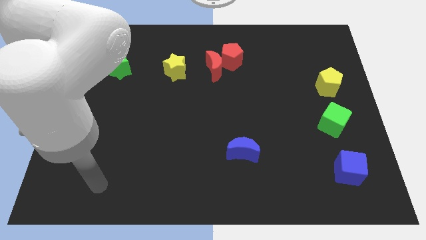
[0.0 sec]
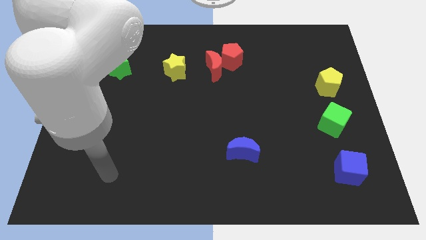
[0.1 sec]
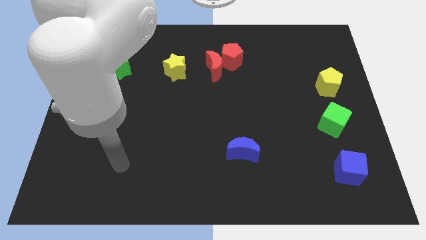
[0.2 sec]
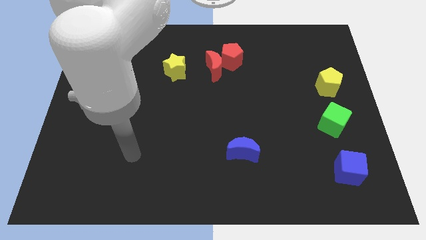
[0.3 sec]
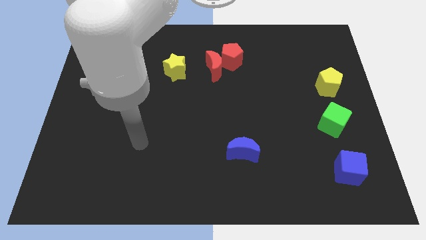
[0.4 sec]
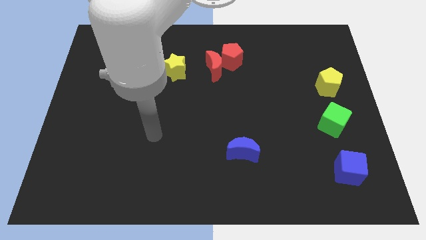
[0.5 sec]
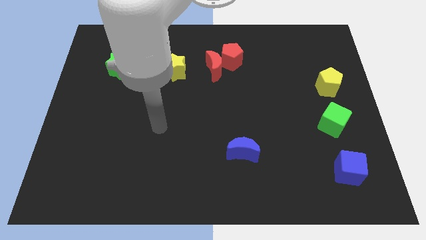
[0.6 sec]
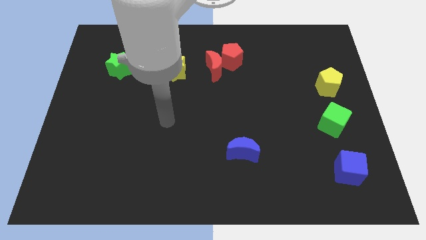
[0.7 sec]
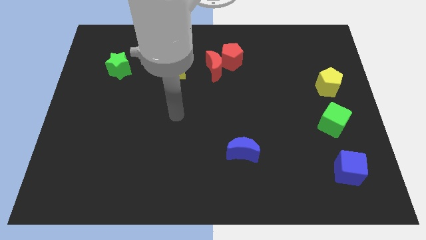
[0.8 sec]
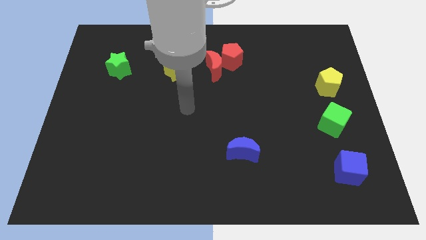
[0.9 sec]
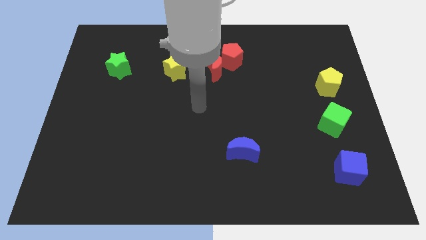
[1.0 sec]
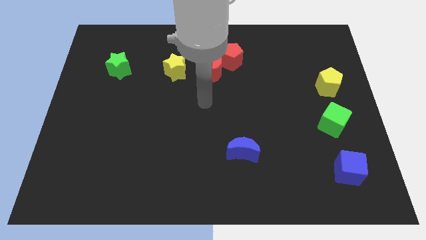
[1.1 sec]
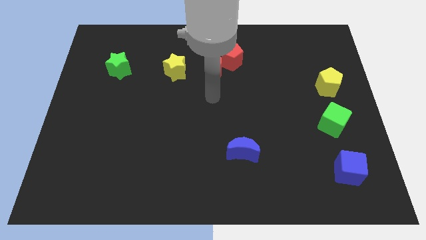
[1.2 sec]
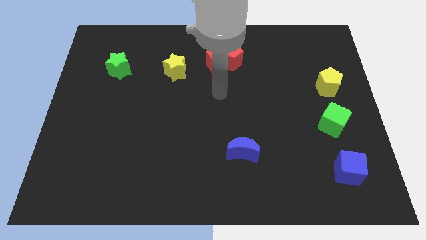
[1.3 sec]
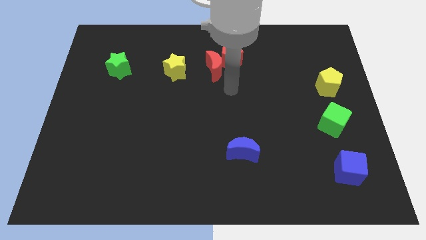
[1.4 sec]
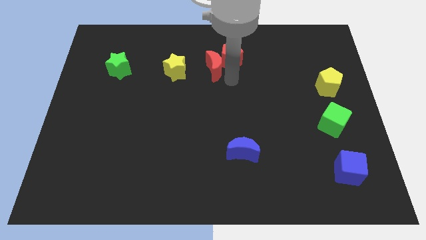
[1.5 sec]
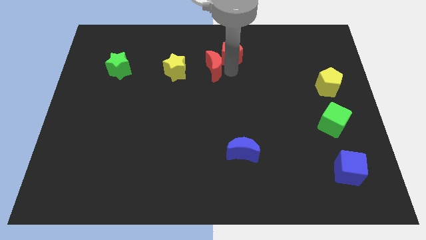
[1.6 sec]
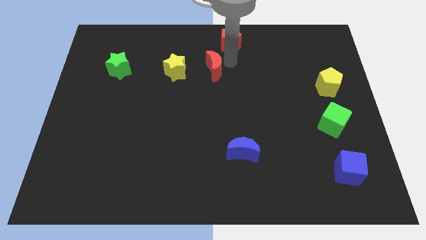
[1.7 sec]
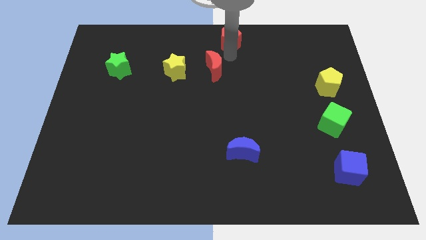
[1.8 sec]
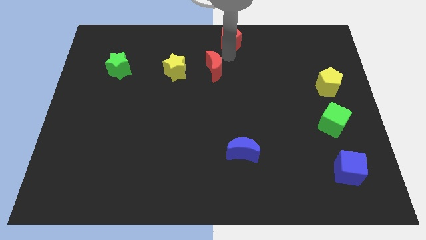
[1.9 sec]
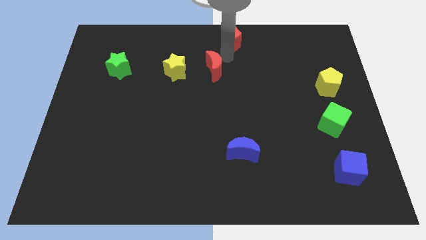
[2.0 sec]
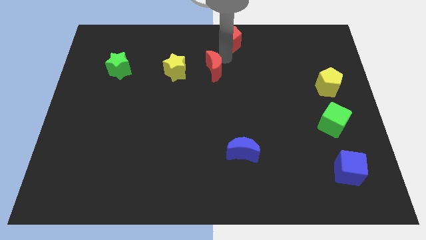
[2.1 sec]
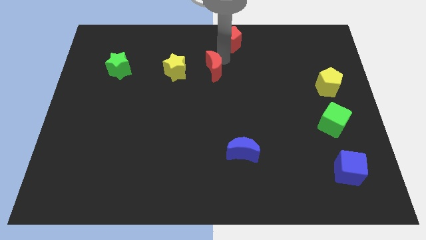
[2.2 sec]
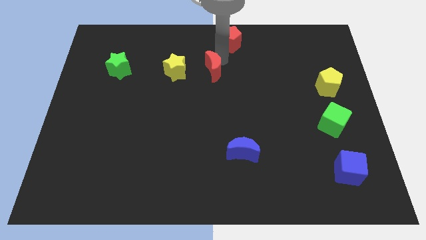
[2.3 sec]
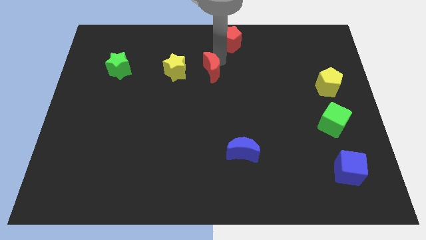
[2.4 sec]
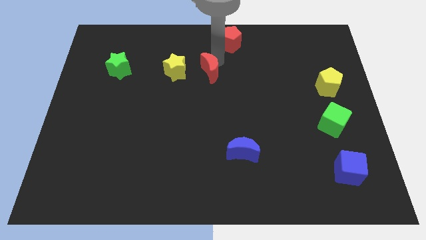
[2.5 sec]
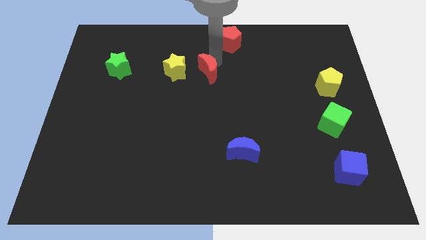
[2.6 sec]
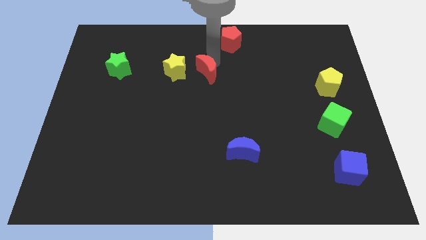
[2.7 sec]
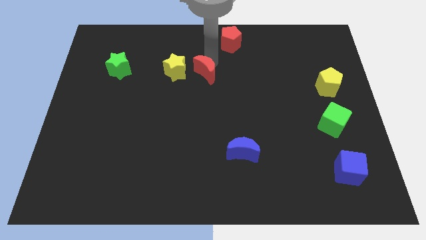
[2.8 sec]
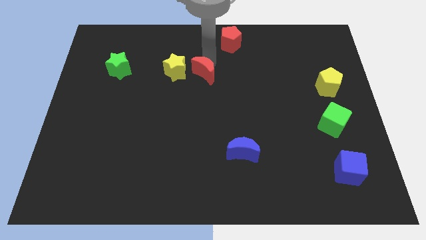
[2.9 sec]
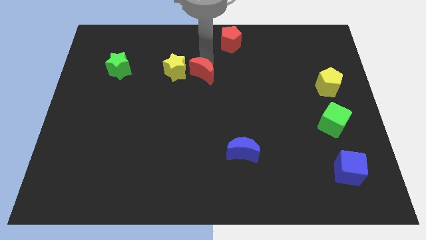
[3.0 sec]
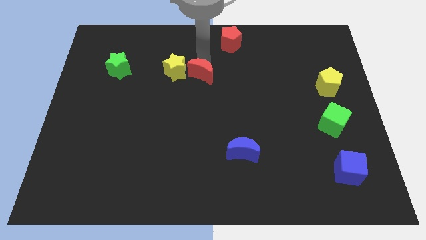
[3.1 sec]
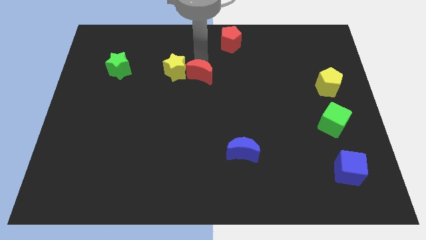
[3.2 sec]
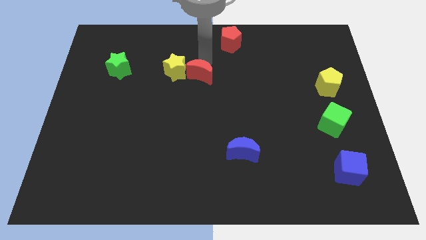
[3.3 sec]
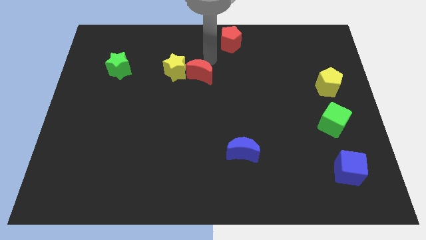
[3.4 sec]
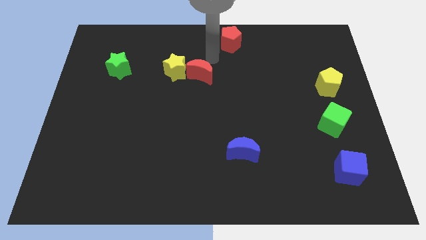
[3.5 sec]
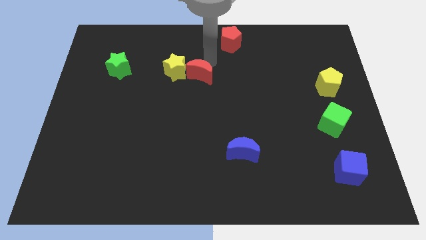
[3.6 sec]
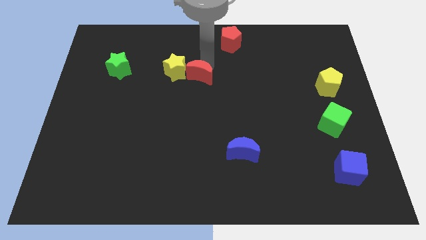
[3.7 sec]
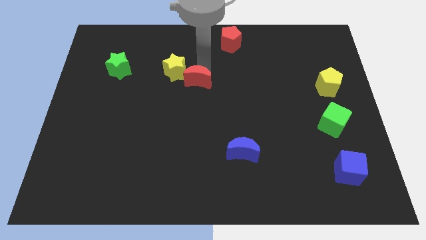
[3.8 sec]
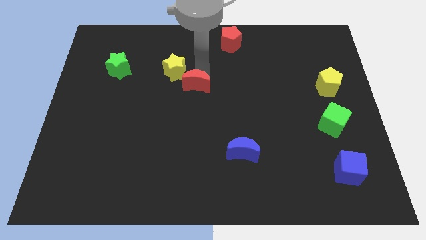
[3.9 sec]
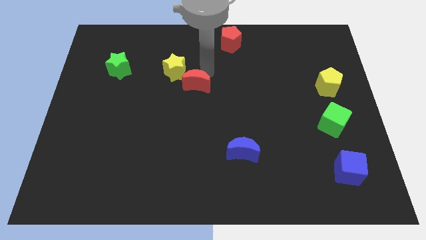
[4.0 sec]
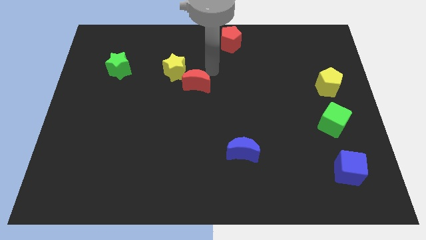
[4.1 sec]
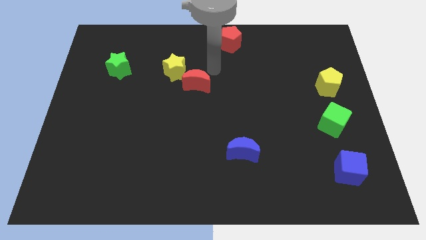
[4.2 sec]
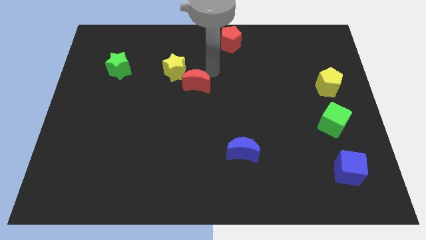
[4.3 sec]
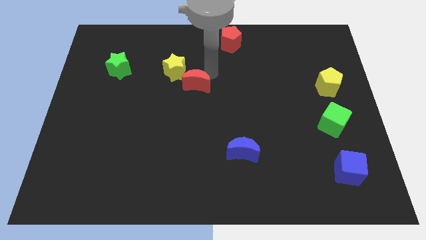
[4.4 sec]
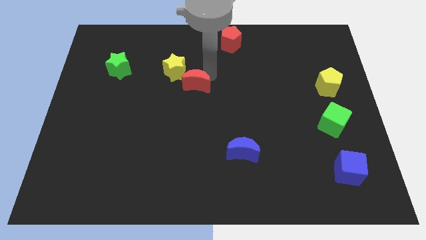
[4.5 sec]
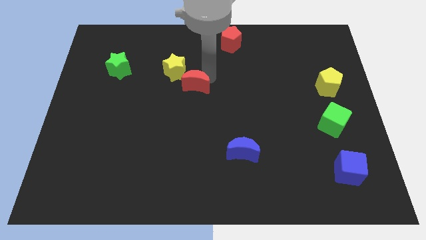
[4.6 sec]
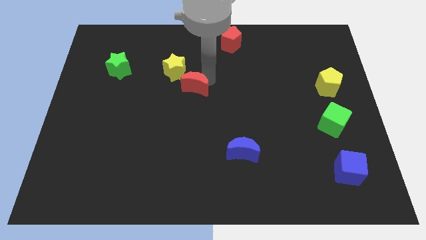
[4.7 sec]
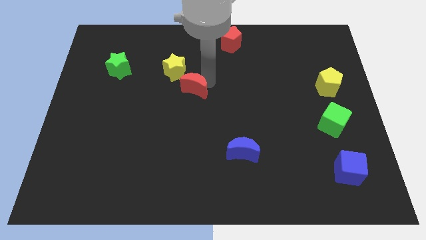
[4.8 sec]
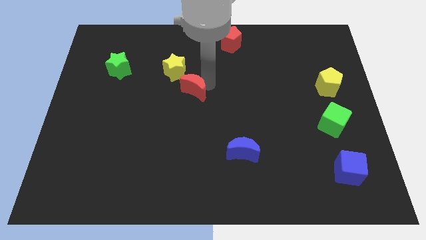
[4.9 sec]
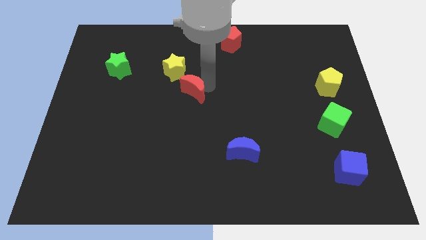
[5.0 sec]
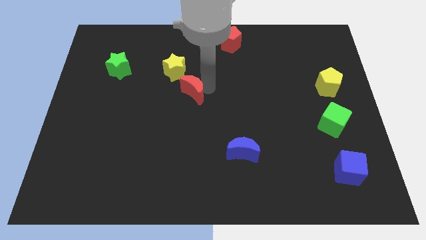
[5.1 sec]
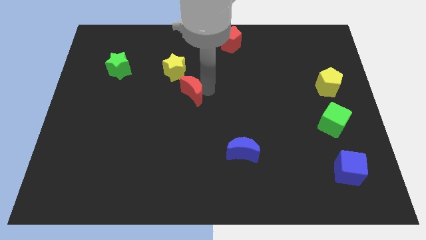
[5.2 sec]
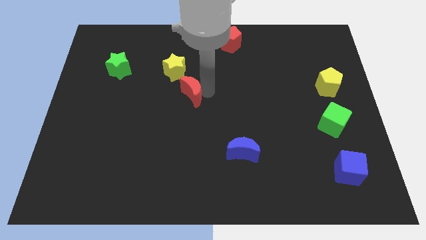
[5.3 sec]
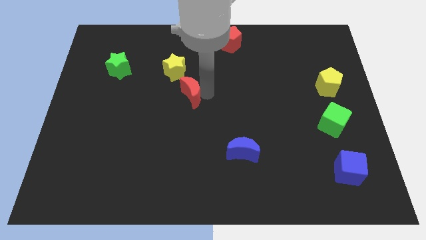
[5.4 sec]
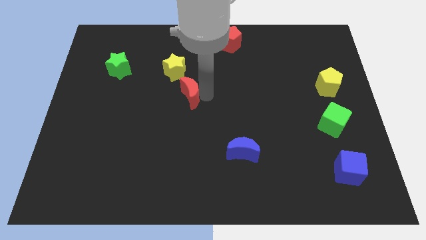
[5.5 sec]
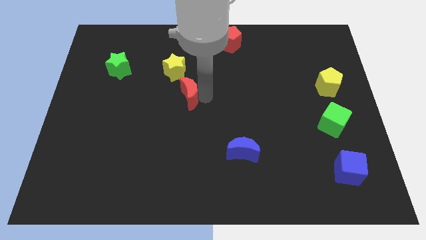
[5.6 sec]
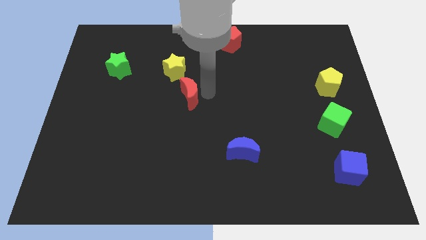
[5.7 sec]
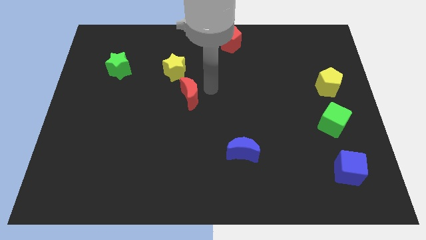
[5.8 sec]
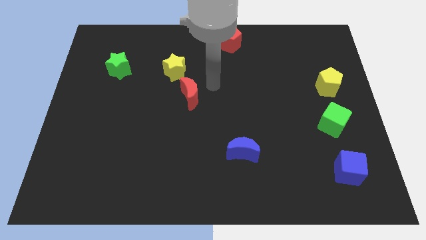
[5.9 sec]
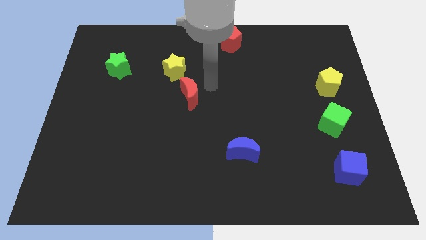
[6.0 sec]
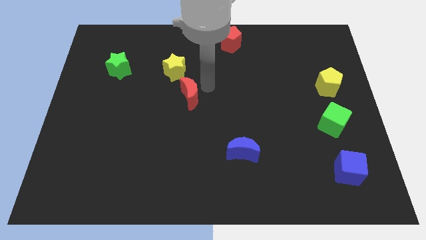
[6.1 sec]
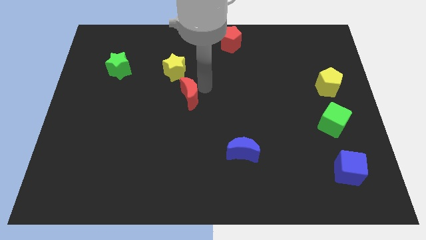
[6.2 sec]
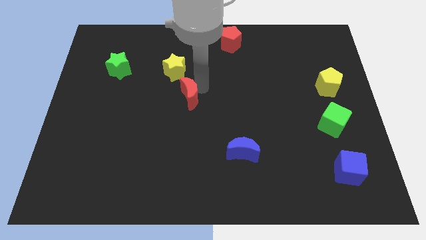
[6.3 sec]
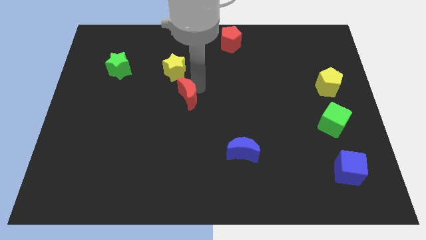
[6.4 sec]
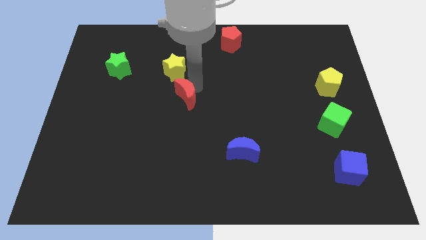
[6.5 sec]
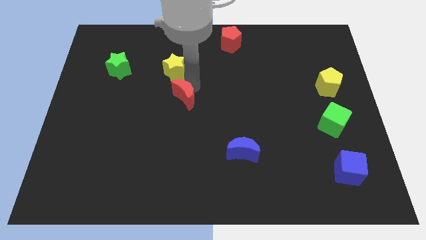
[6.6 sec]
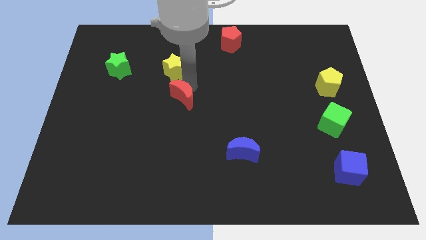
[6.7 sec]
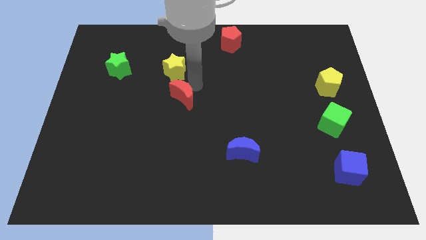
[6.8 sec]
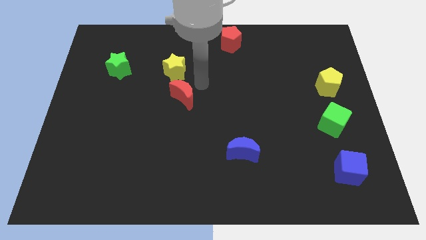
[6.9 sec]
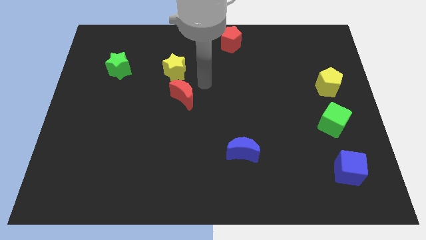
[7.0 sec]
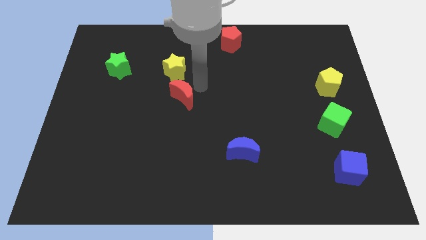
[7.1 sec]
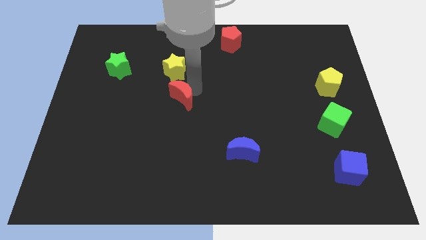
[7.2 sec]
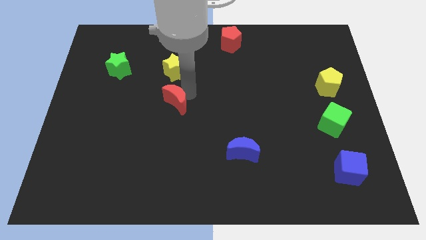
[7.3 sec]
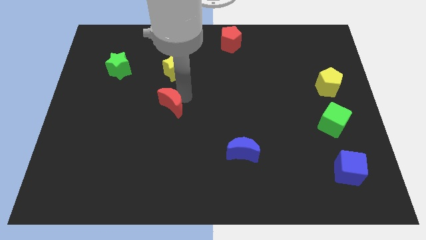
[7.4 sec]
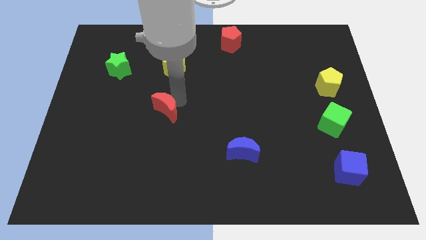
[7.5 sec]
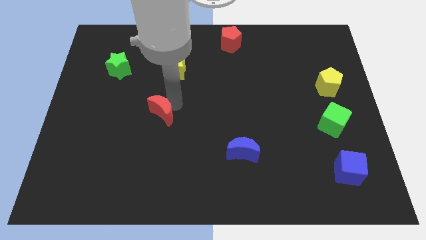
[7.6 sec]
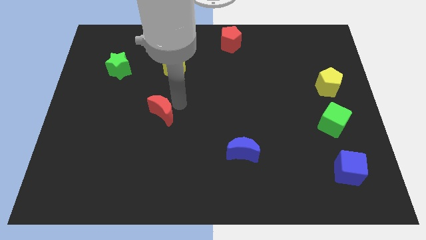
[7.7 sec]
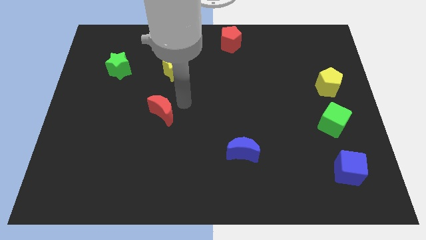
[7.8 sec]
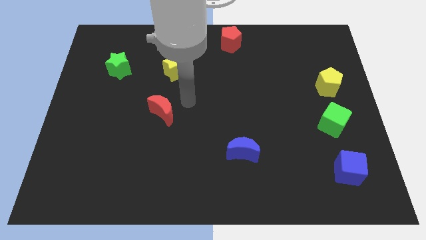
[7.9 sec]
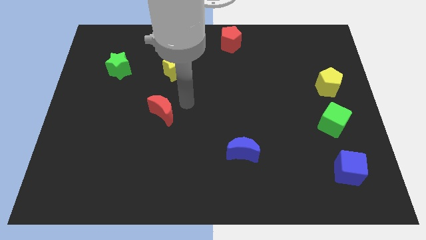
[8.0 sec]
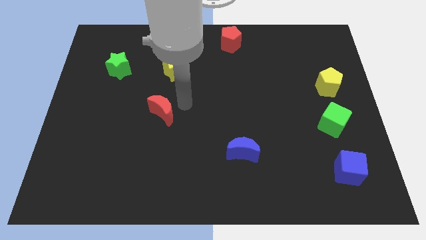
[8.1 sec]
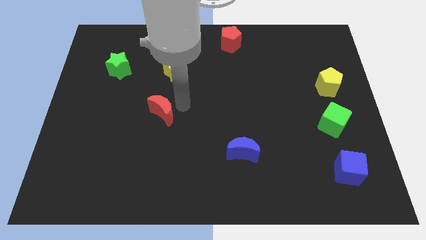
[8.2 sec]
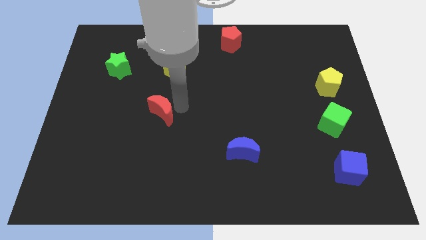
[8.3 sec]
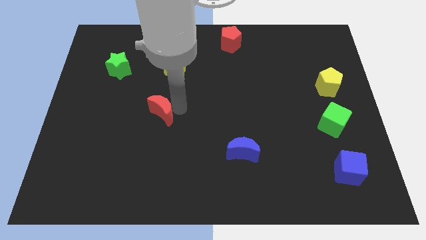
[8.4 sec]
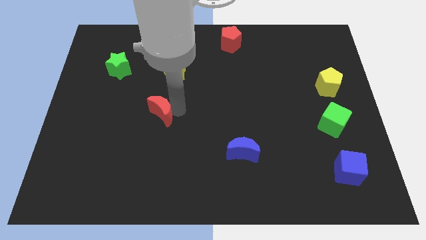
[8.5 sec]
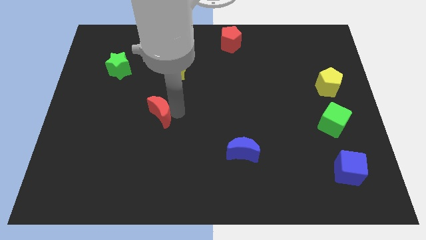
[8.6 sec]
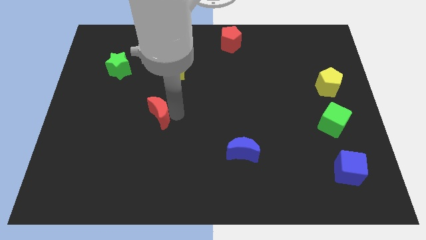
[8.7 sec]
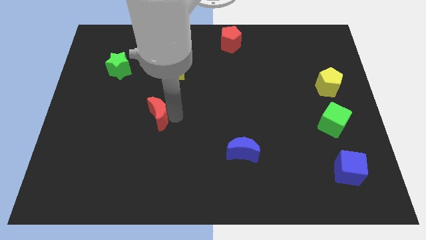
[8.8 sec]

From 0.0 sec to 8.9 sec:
push the red moon down and then to the left
